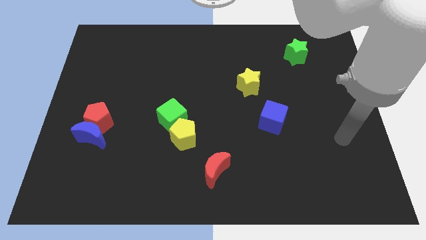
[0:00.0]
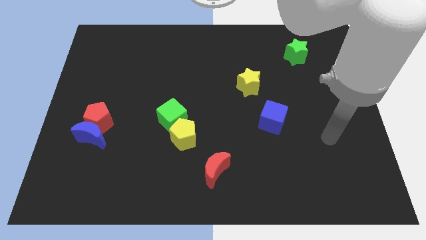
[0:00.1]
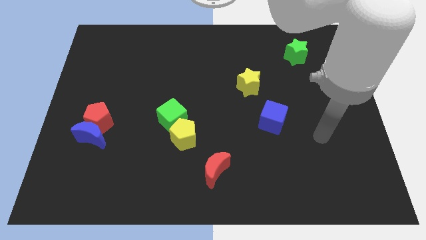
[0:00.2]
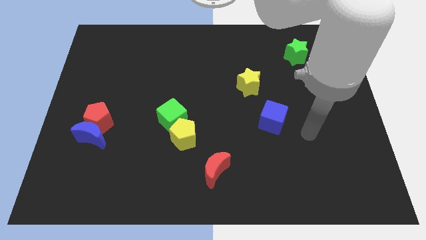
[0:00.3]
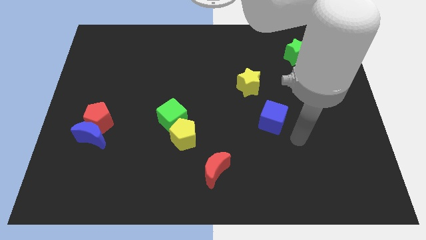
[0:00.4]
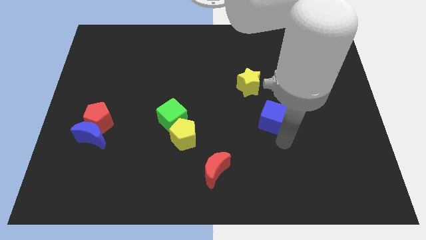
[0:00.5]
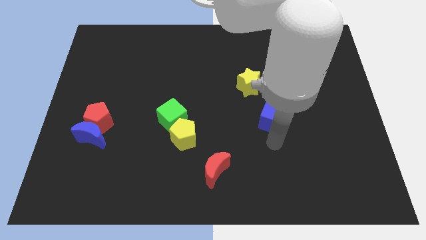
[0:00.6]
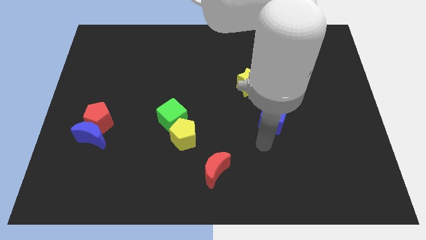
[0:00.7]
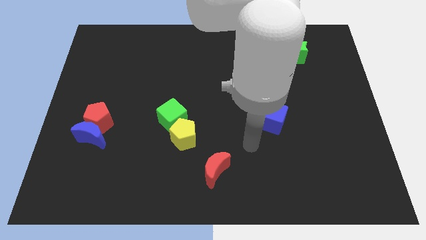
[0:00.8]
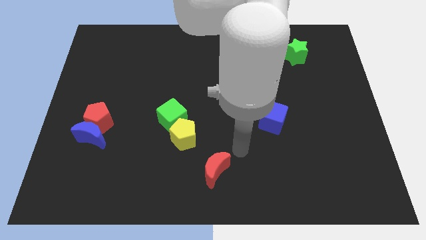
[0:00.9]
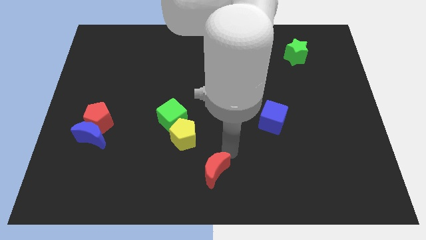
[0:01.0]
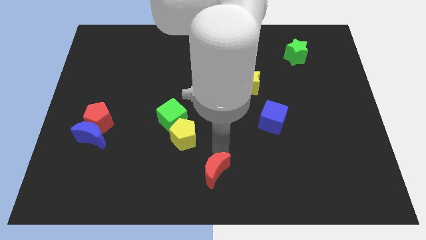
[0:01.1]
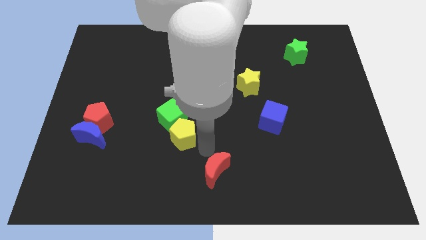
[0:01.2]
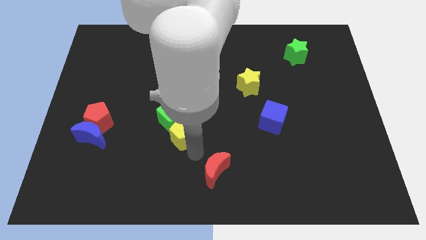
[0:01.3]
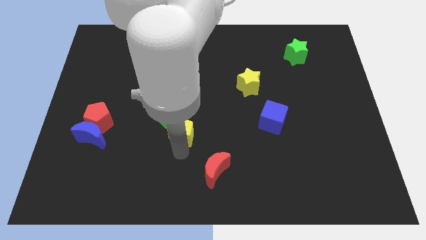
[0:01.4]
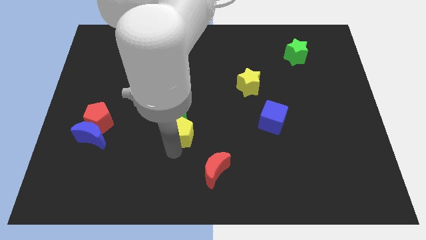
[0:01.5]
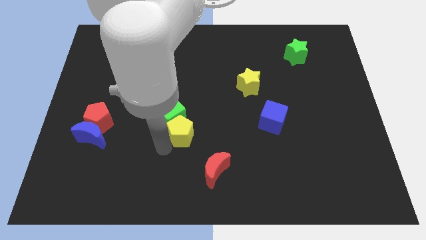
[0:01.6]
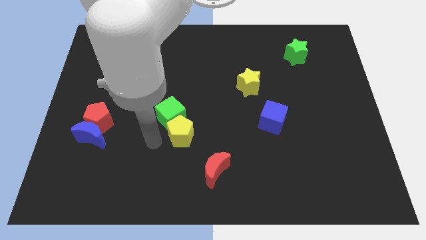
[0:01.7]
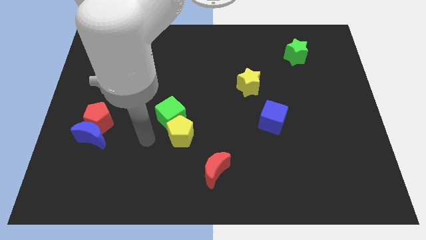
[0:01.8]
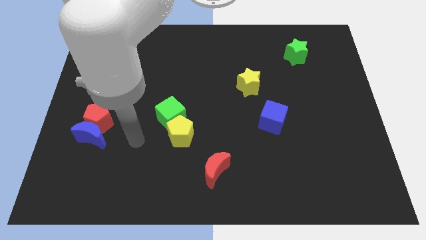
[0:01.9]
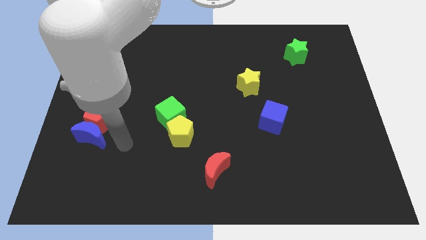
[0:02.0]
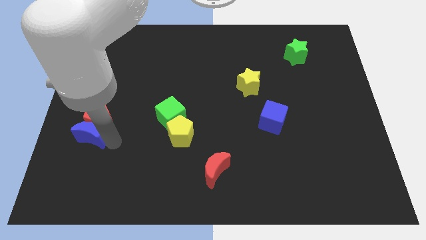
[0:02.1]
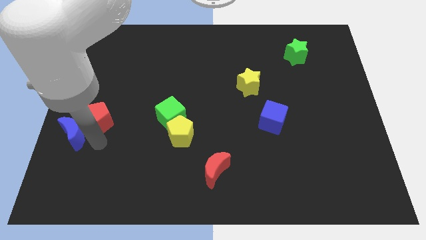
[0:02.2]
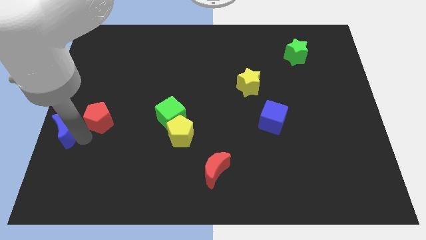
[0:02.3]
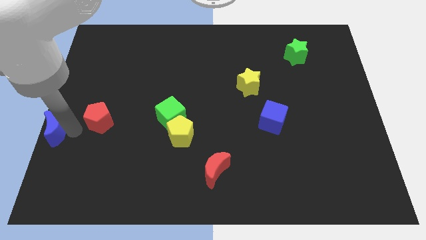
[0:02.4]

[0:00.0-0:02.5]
move the red pentagon away from the blue moon

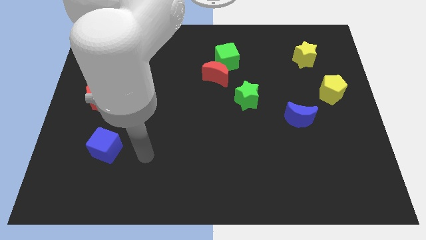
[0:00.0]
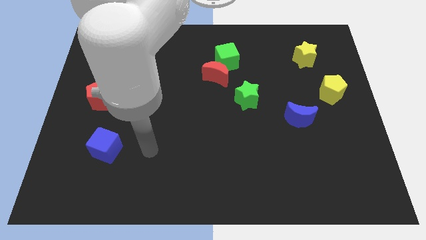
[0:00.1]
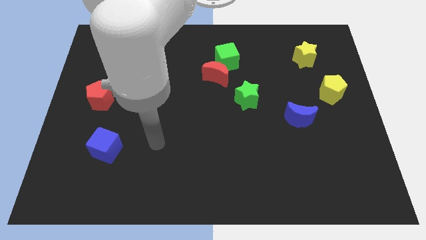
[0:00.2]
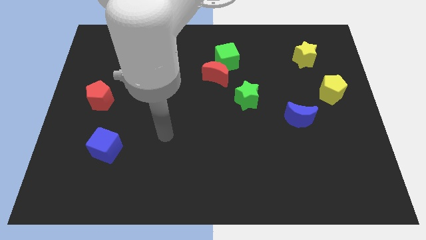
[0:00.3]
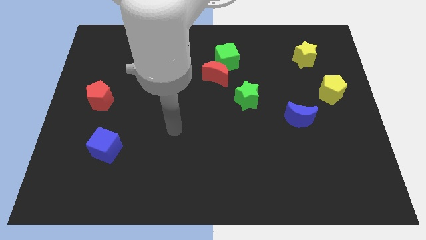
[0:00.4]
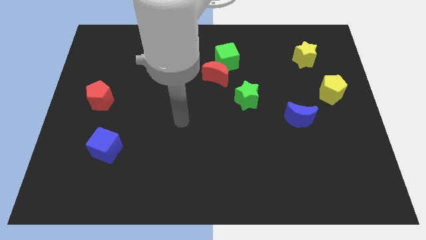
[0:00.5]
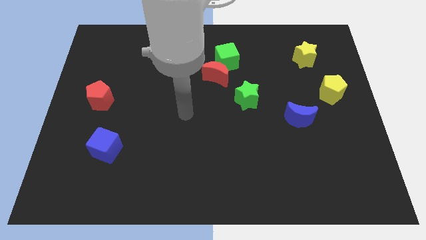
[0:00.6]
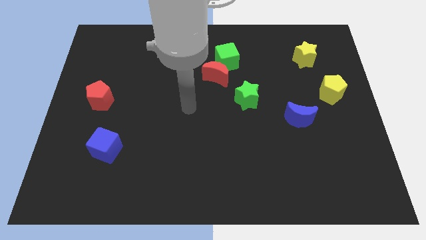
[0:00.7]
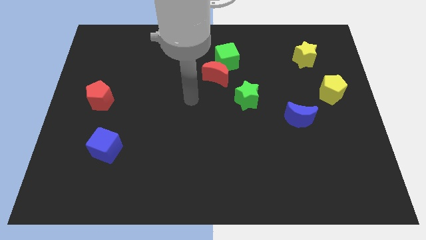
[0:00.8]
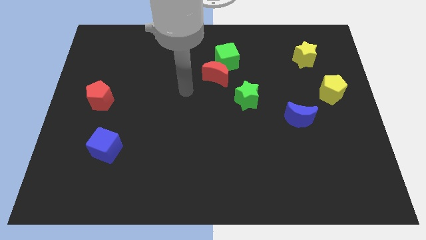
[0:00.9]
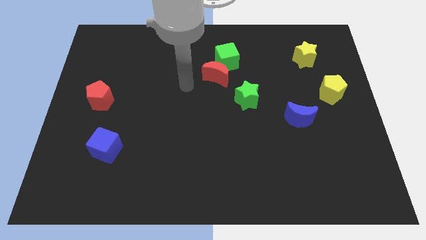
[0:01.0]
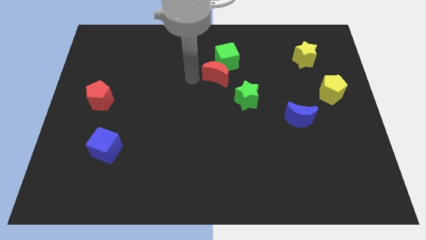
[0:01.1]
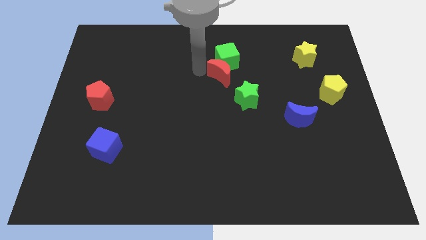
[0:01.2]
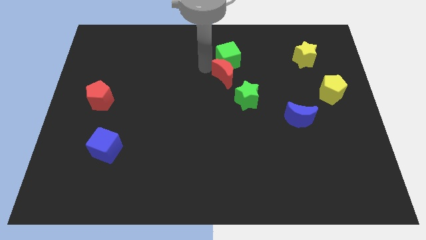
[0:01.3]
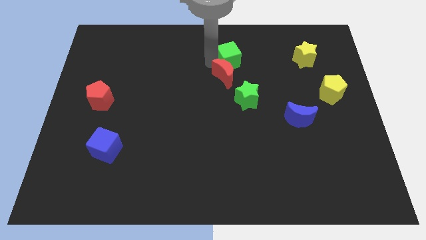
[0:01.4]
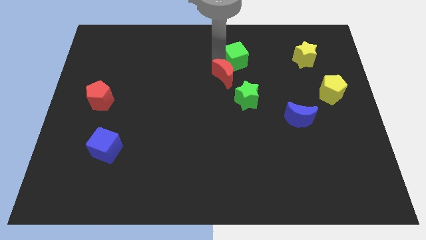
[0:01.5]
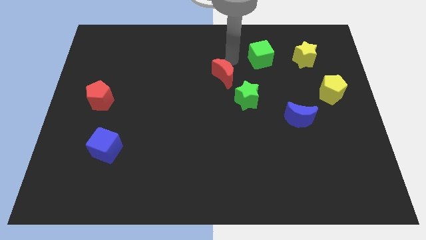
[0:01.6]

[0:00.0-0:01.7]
pull the red moon apart from the green cube

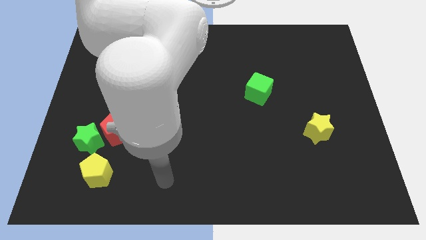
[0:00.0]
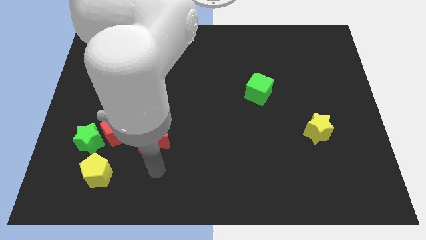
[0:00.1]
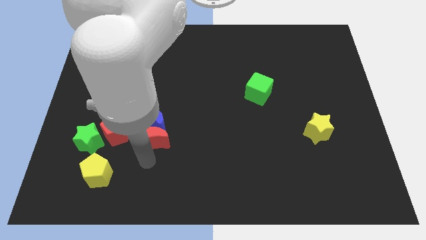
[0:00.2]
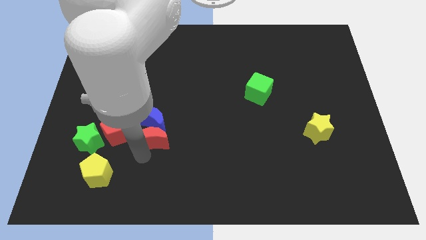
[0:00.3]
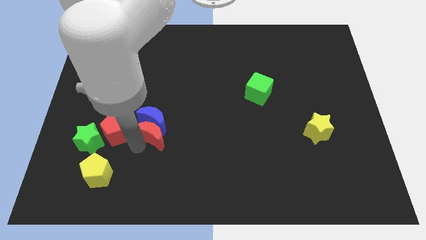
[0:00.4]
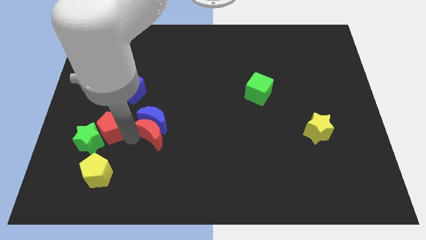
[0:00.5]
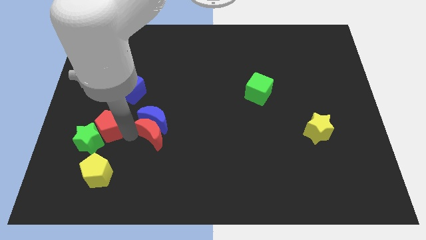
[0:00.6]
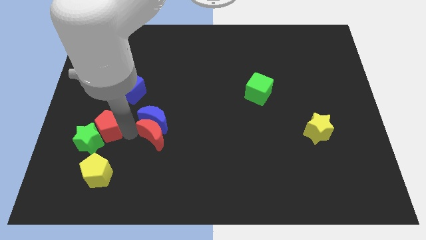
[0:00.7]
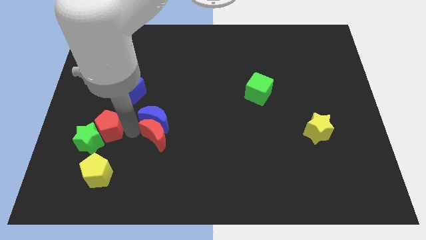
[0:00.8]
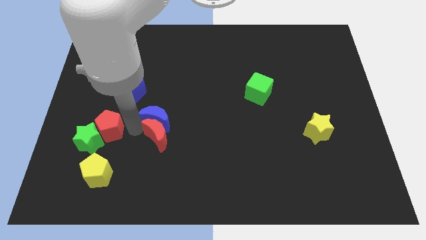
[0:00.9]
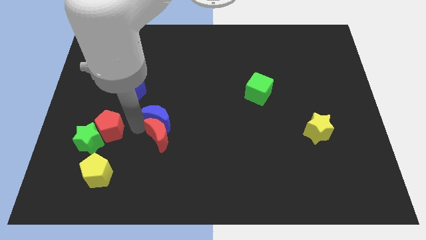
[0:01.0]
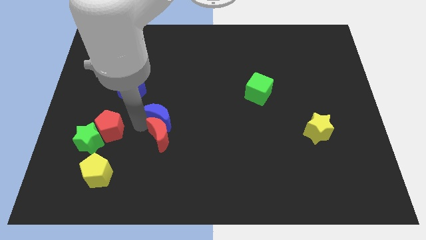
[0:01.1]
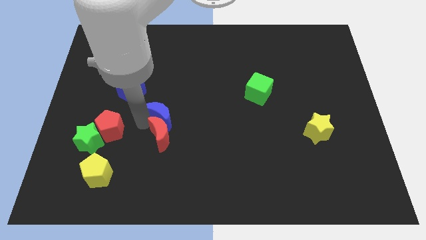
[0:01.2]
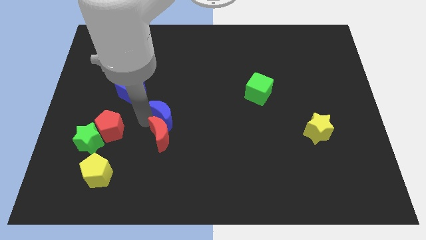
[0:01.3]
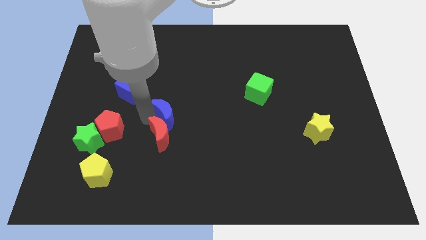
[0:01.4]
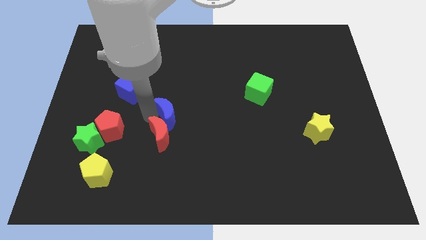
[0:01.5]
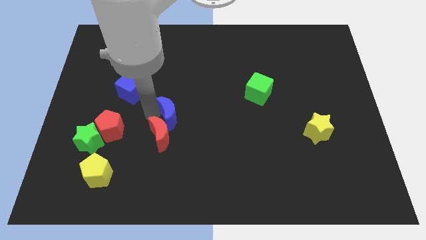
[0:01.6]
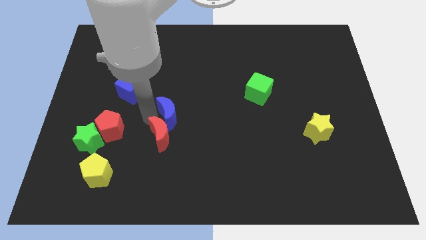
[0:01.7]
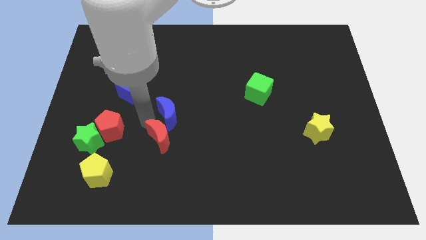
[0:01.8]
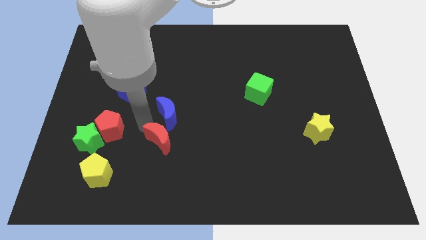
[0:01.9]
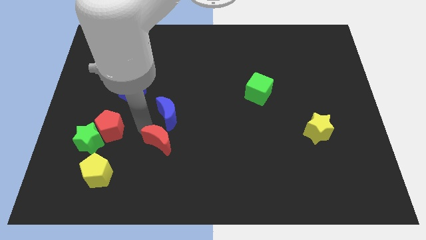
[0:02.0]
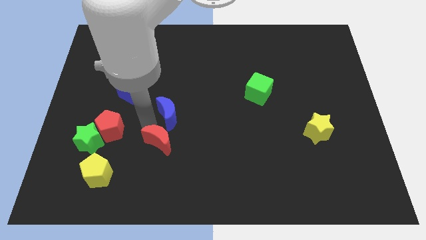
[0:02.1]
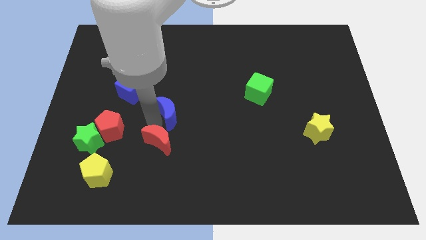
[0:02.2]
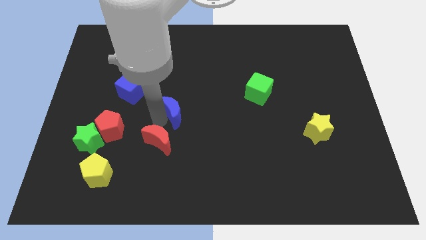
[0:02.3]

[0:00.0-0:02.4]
pull the blue moon apart from the red moon and red pentagon

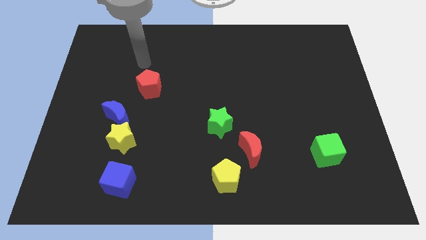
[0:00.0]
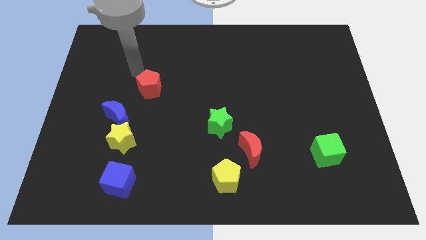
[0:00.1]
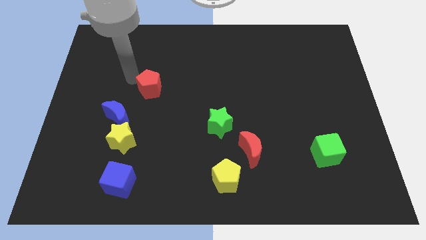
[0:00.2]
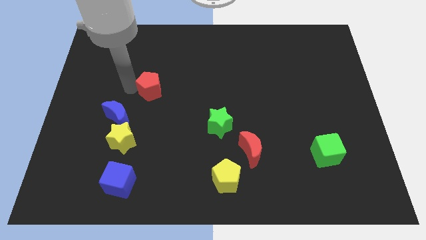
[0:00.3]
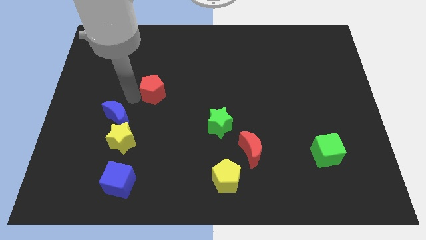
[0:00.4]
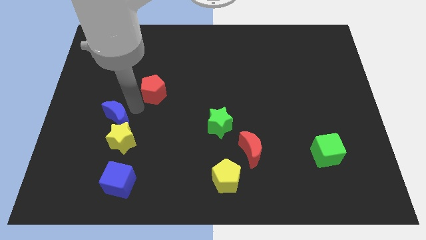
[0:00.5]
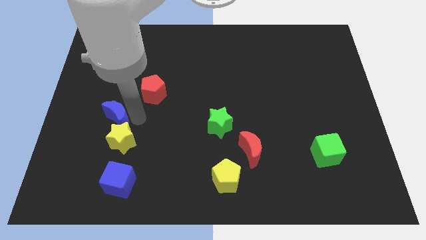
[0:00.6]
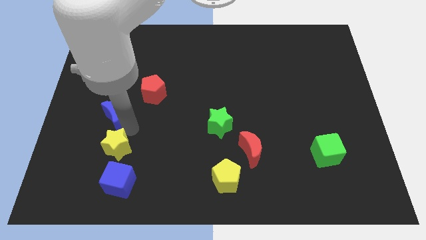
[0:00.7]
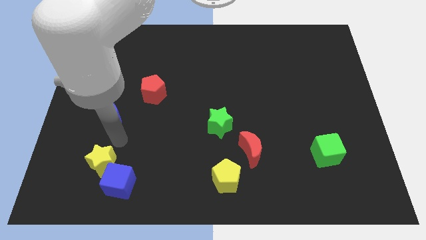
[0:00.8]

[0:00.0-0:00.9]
move the blue moon away from the yellow star

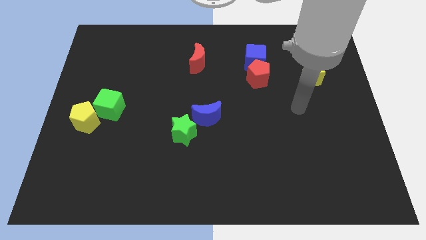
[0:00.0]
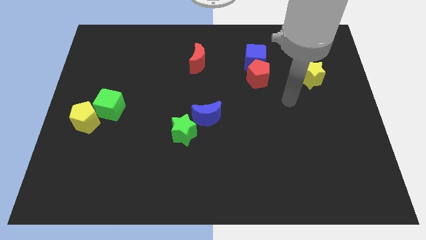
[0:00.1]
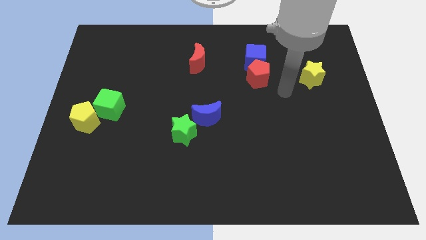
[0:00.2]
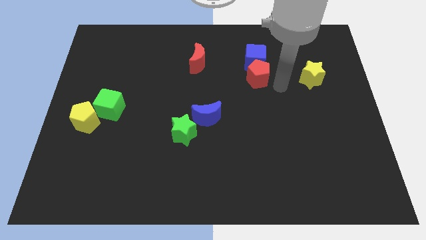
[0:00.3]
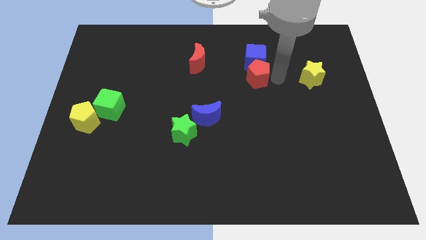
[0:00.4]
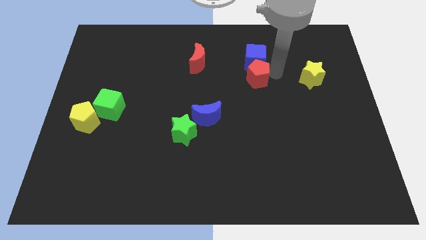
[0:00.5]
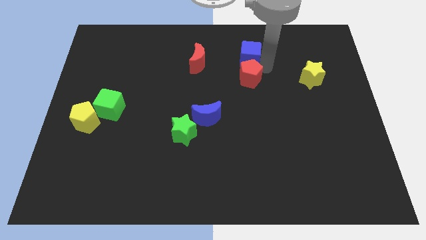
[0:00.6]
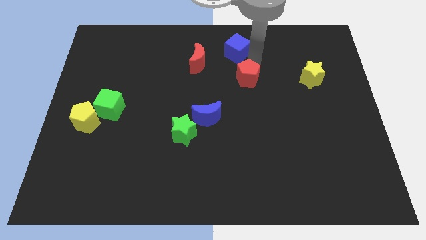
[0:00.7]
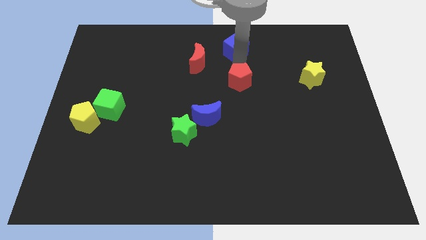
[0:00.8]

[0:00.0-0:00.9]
move the red pentagon away from the blue cube

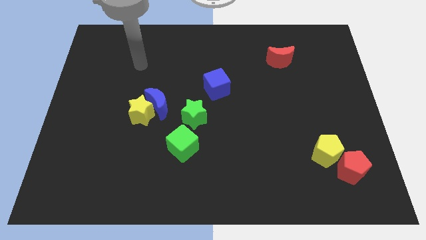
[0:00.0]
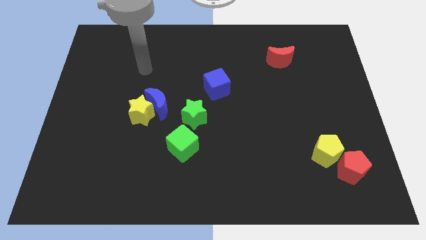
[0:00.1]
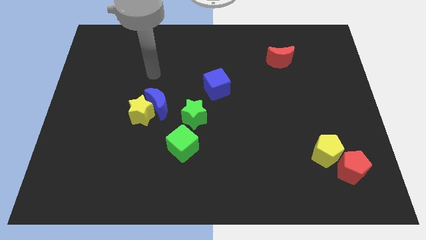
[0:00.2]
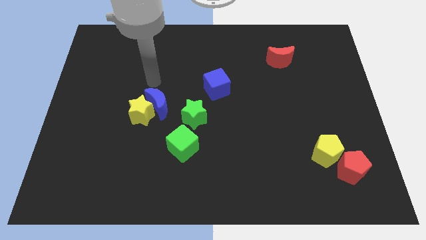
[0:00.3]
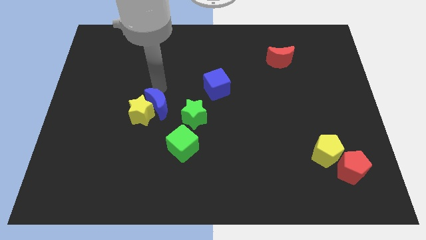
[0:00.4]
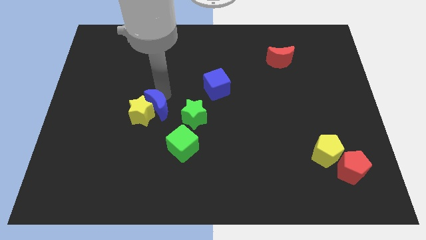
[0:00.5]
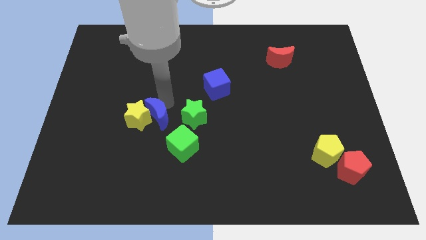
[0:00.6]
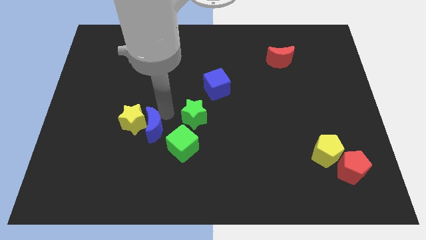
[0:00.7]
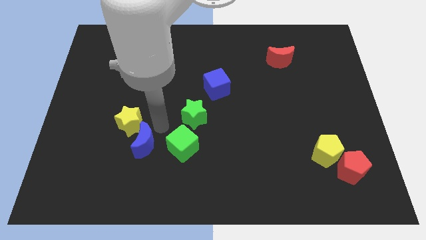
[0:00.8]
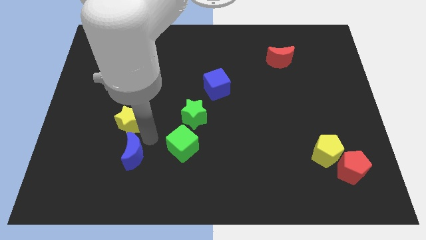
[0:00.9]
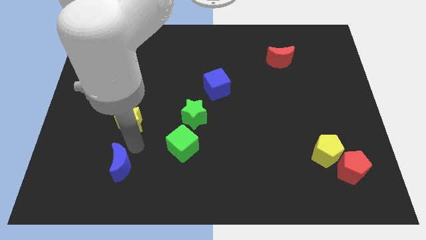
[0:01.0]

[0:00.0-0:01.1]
pull the yellow star apart from the blue moon
